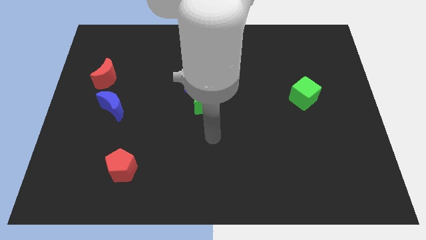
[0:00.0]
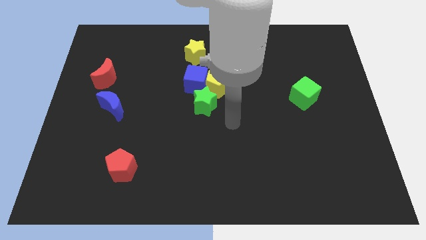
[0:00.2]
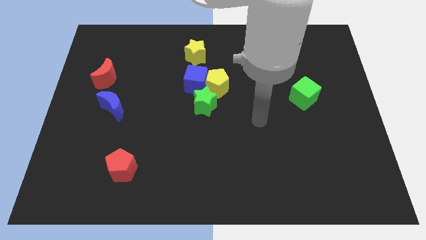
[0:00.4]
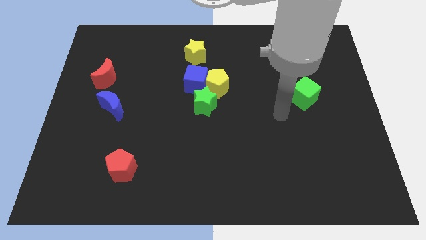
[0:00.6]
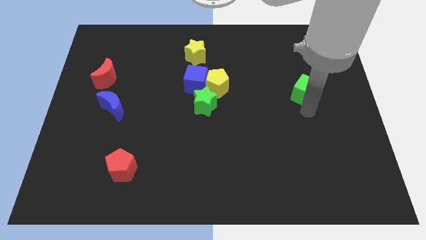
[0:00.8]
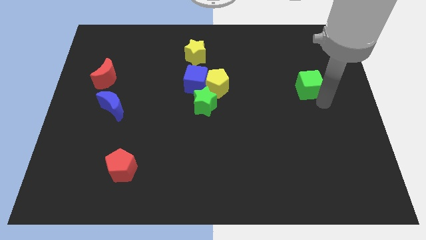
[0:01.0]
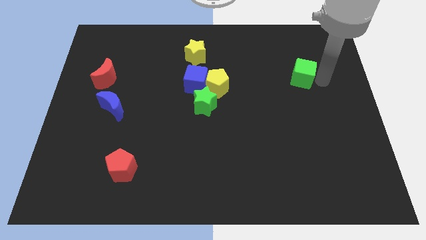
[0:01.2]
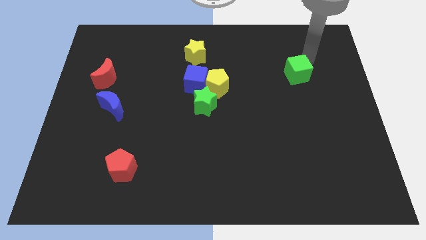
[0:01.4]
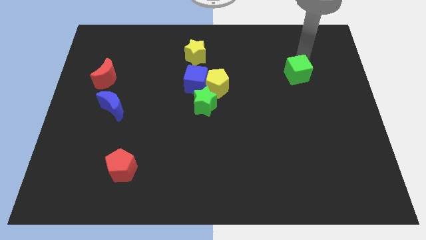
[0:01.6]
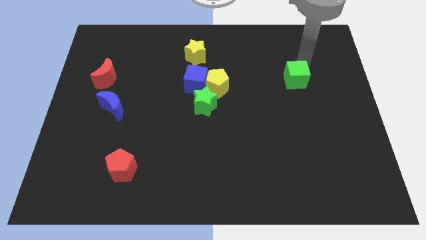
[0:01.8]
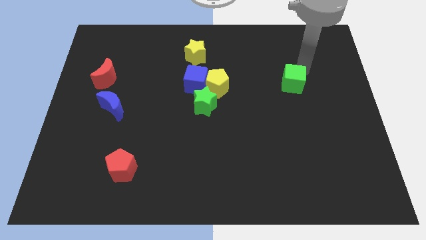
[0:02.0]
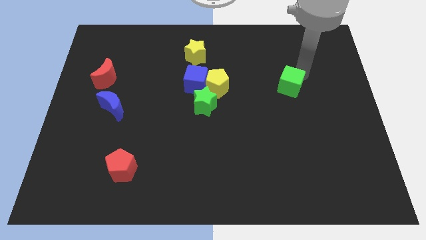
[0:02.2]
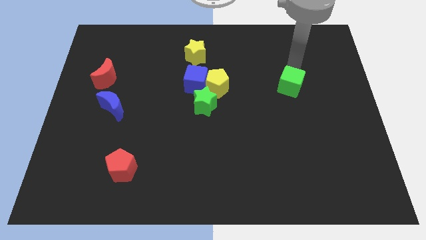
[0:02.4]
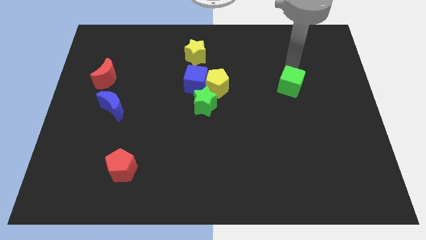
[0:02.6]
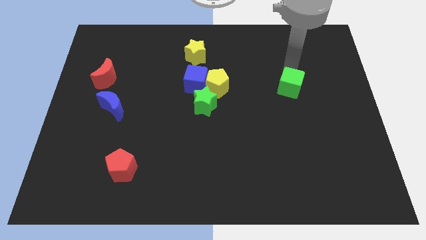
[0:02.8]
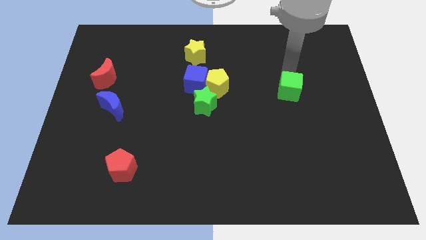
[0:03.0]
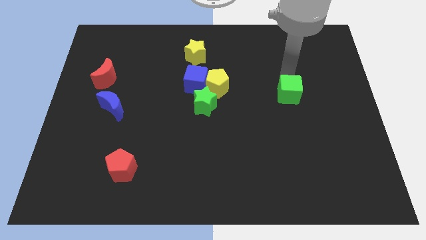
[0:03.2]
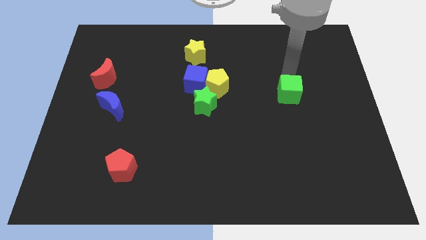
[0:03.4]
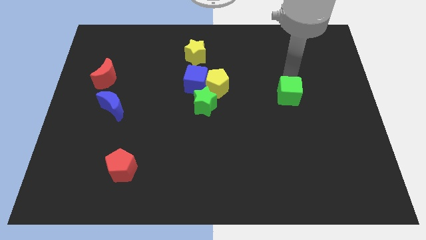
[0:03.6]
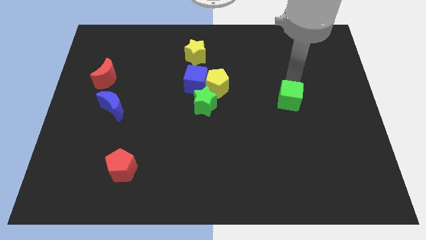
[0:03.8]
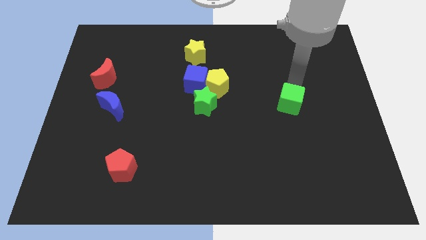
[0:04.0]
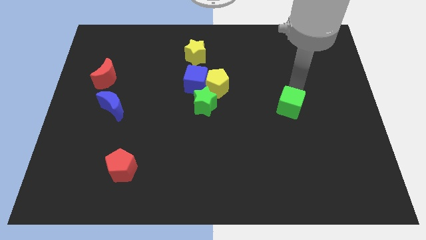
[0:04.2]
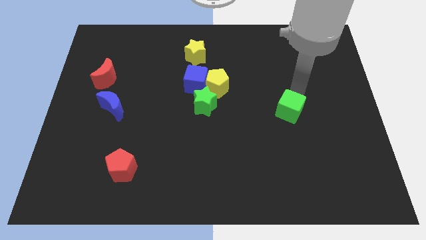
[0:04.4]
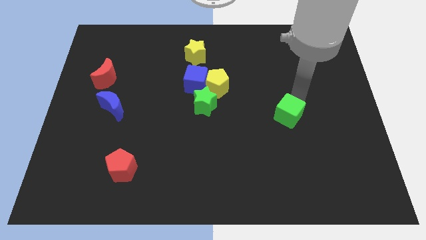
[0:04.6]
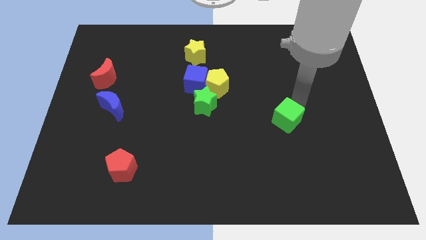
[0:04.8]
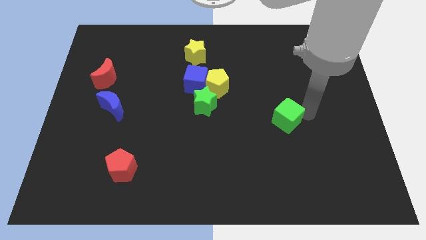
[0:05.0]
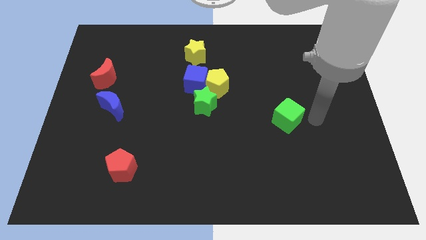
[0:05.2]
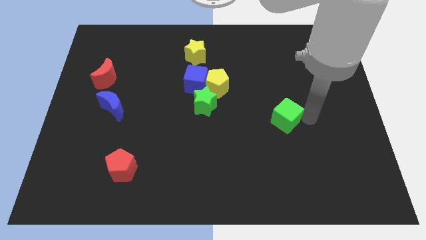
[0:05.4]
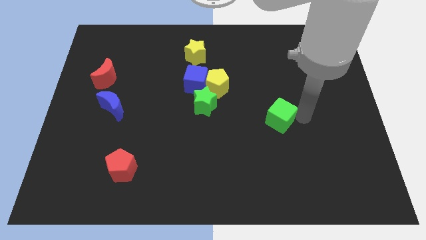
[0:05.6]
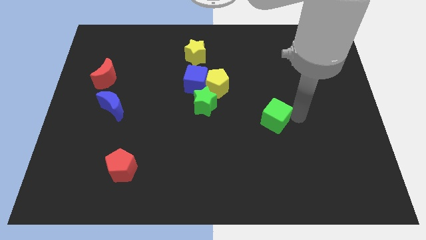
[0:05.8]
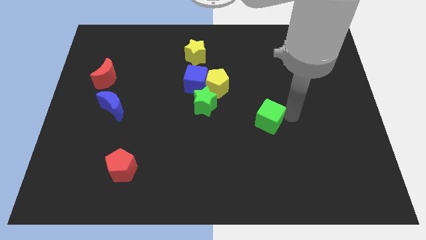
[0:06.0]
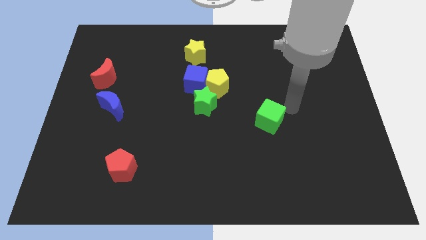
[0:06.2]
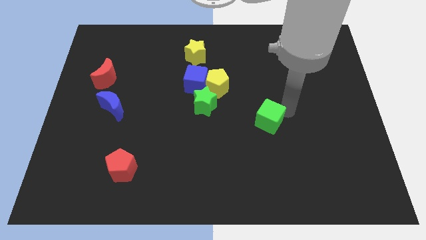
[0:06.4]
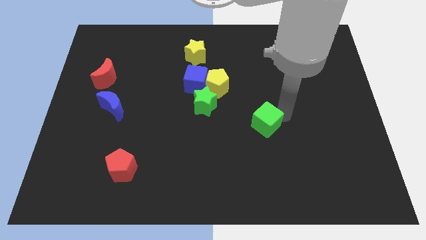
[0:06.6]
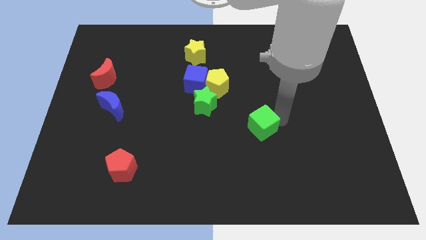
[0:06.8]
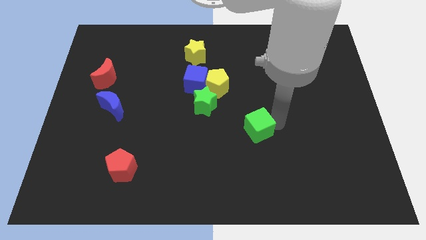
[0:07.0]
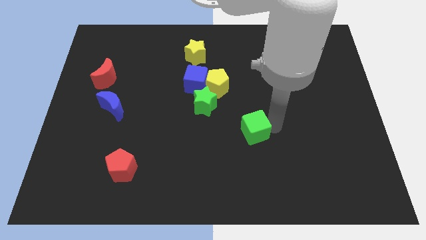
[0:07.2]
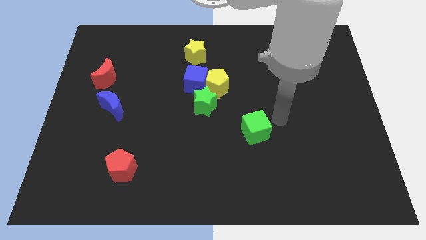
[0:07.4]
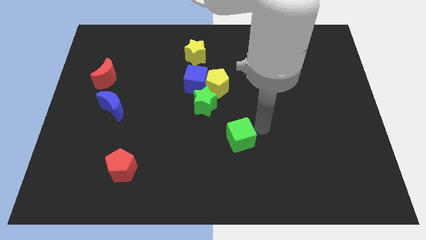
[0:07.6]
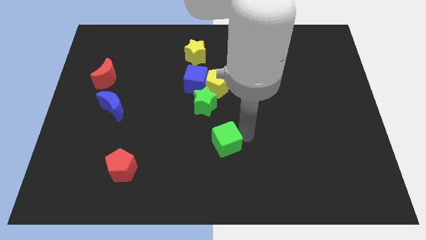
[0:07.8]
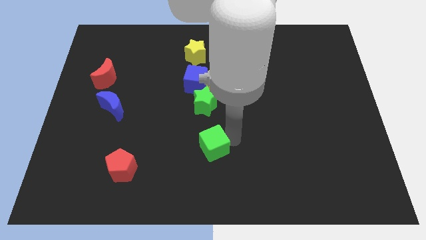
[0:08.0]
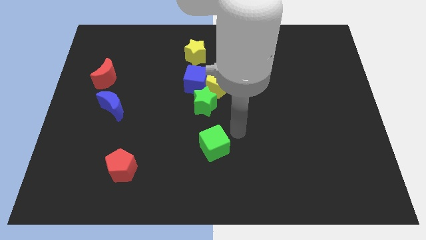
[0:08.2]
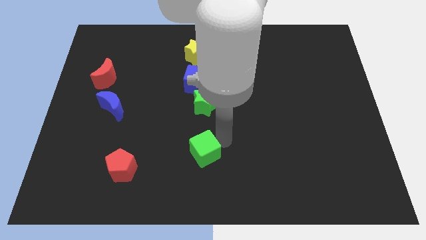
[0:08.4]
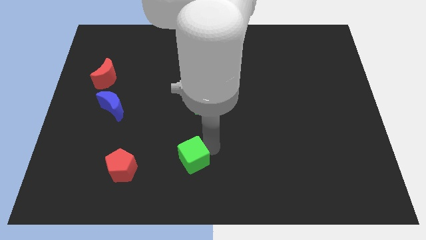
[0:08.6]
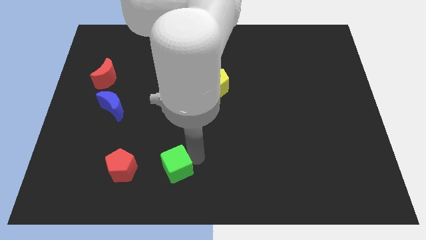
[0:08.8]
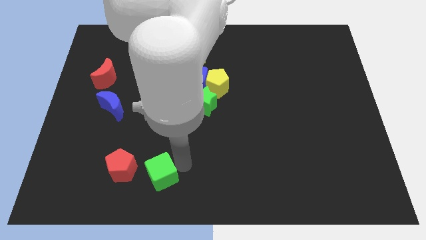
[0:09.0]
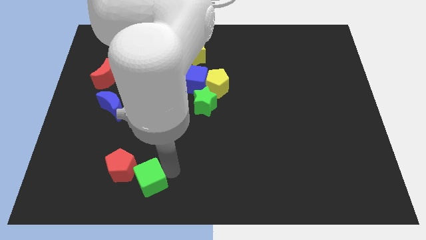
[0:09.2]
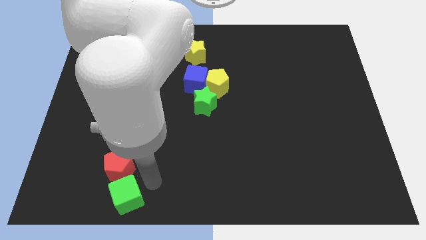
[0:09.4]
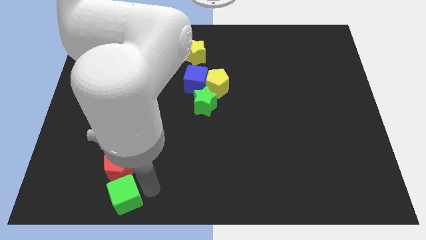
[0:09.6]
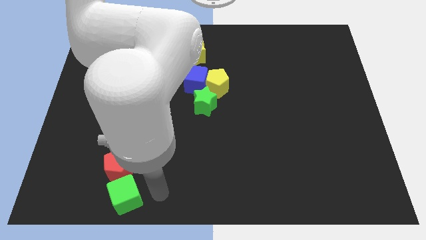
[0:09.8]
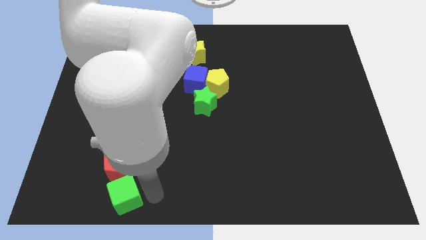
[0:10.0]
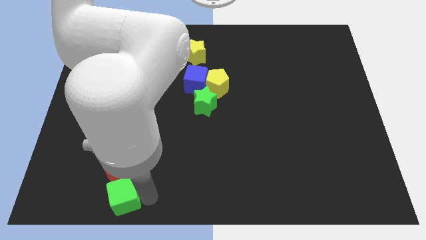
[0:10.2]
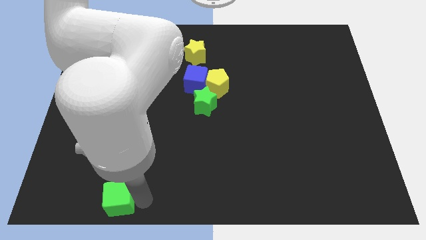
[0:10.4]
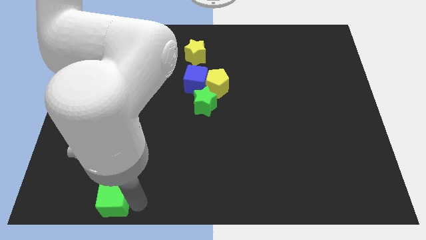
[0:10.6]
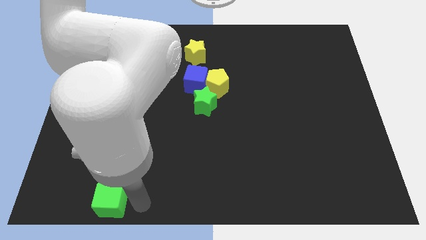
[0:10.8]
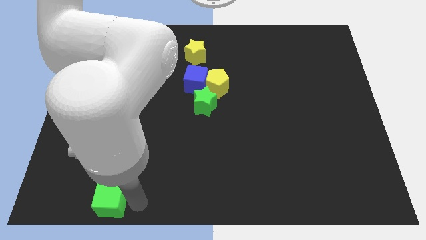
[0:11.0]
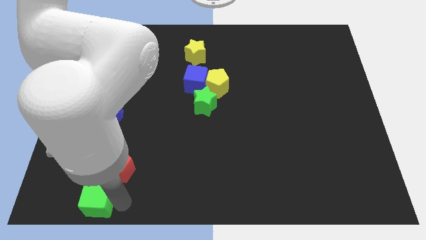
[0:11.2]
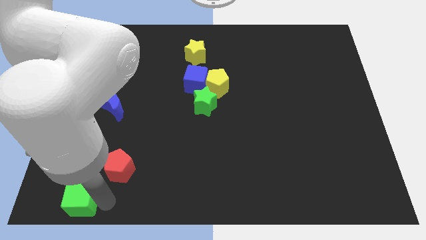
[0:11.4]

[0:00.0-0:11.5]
put the green cube to the bottom left corner

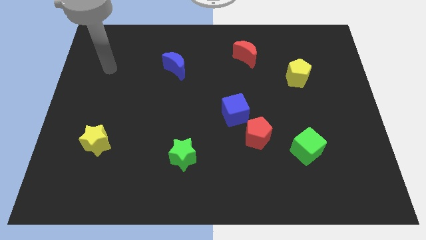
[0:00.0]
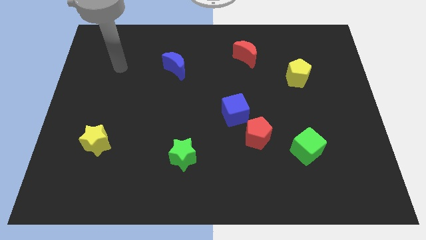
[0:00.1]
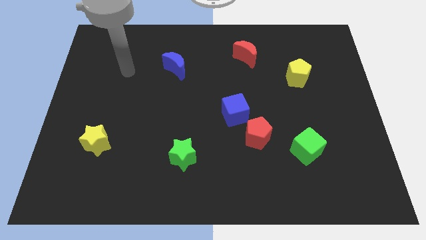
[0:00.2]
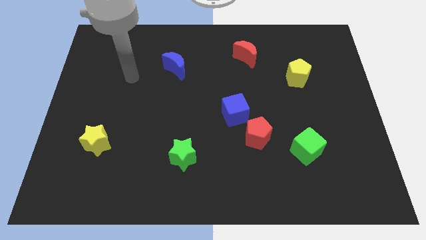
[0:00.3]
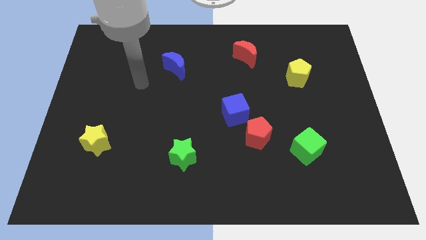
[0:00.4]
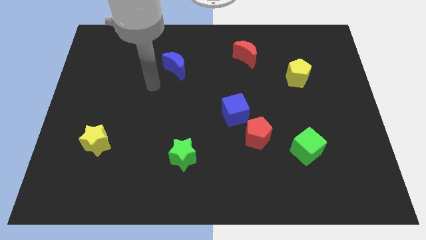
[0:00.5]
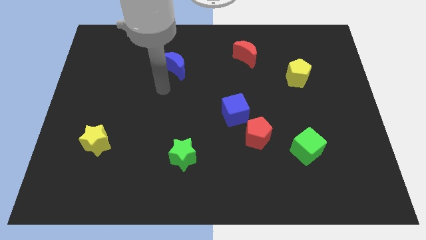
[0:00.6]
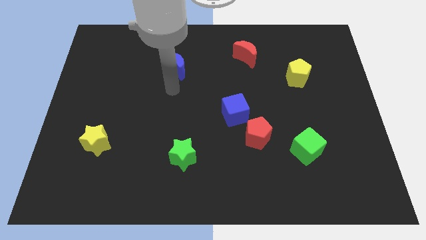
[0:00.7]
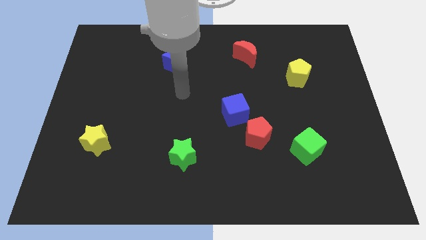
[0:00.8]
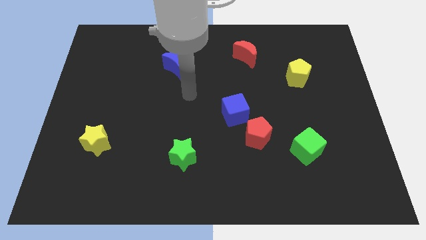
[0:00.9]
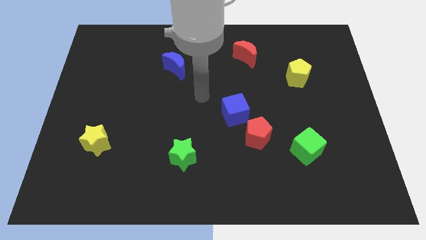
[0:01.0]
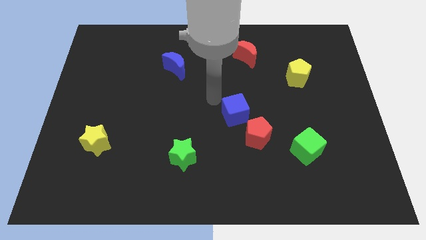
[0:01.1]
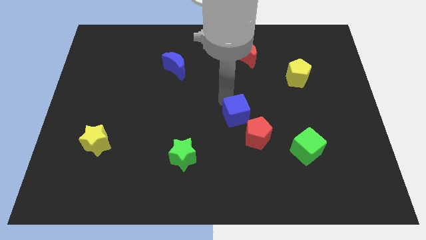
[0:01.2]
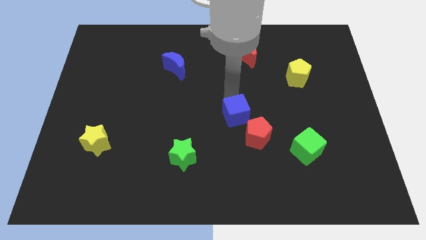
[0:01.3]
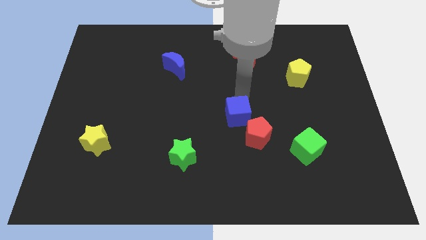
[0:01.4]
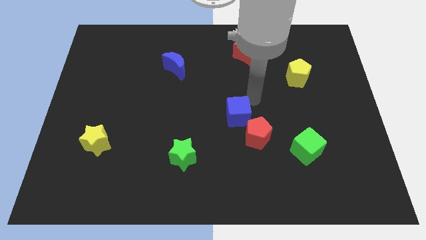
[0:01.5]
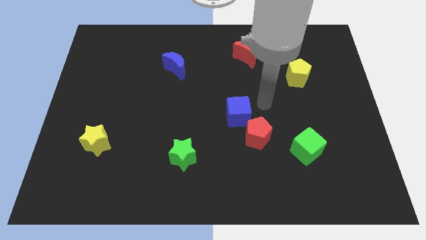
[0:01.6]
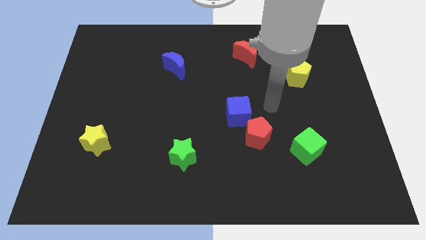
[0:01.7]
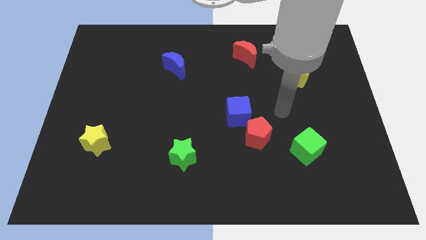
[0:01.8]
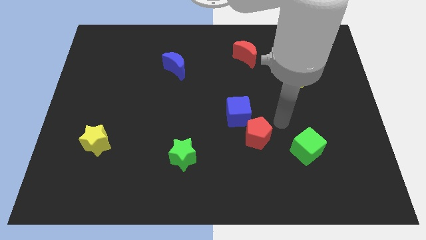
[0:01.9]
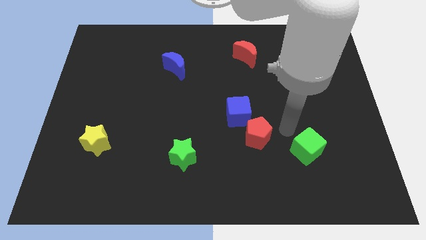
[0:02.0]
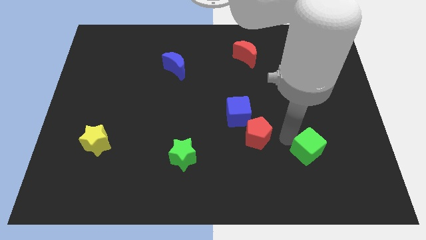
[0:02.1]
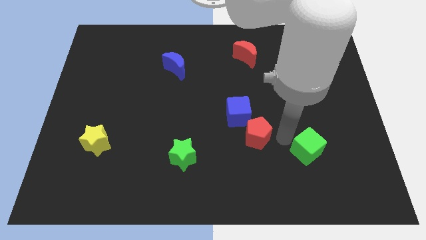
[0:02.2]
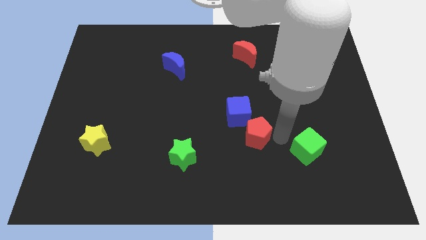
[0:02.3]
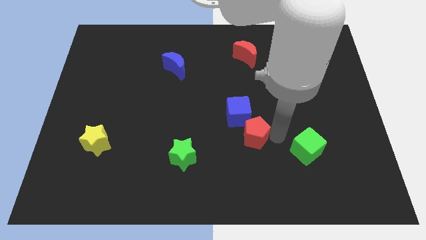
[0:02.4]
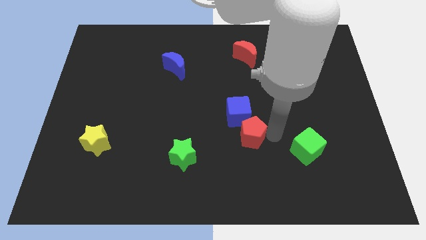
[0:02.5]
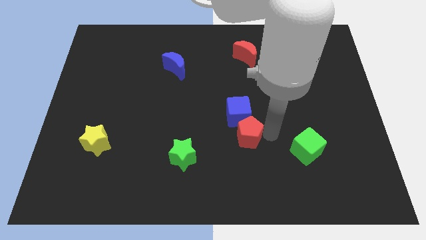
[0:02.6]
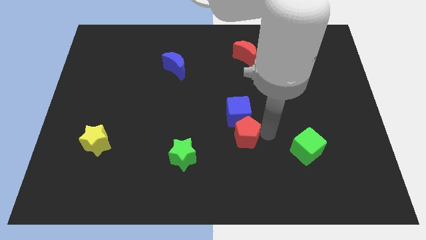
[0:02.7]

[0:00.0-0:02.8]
put the red pentagon to the middle
